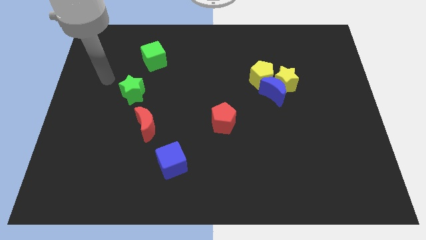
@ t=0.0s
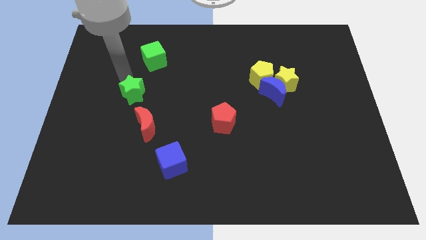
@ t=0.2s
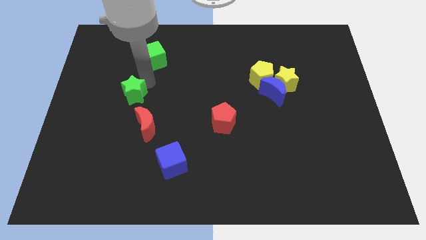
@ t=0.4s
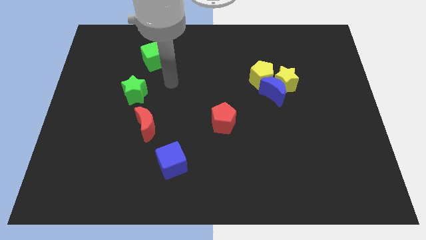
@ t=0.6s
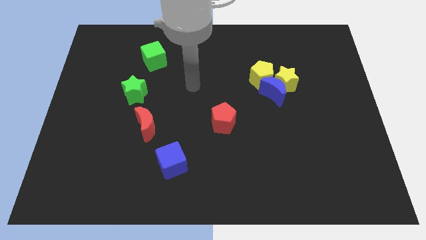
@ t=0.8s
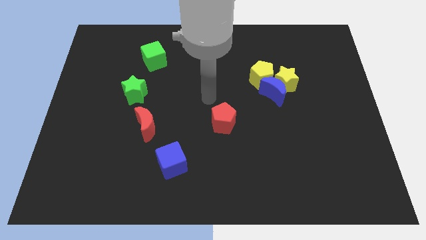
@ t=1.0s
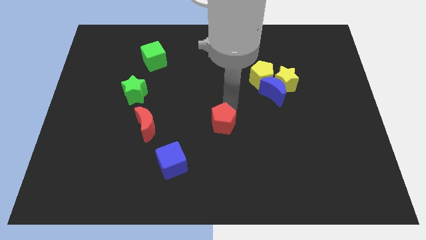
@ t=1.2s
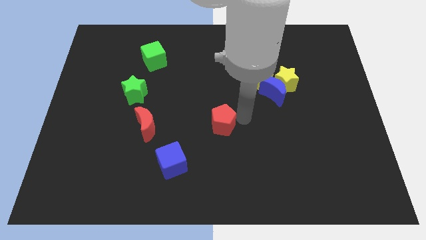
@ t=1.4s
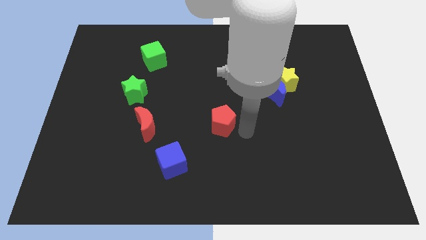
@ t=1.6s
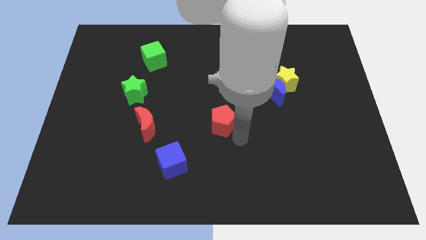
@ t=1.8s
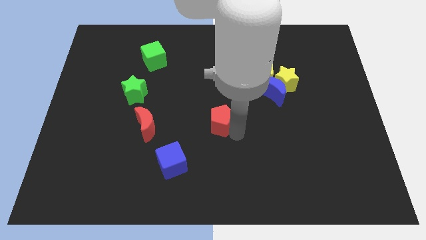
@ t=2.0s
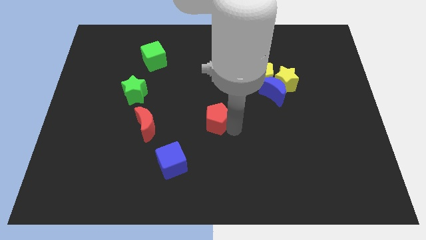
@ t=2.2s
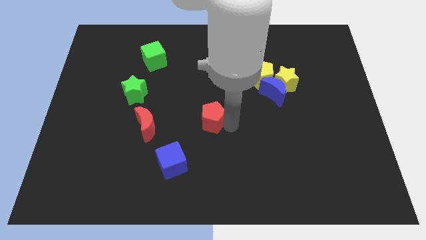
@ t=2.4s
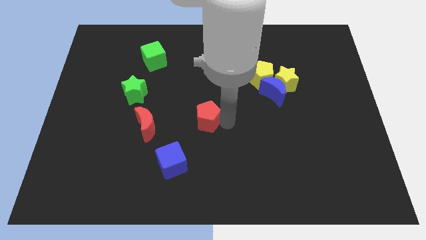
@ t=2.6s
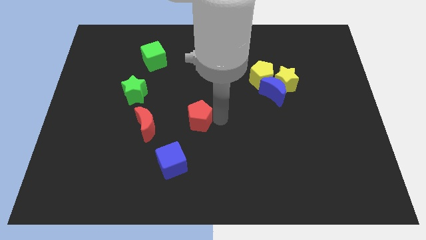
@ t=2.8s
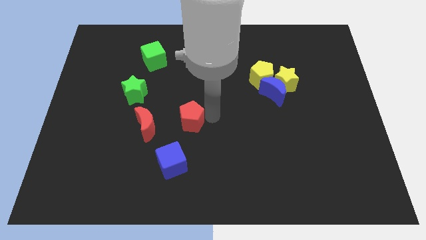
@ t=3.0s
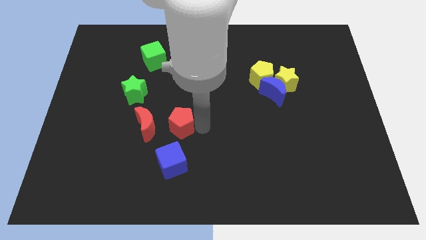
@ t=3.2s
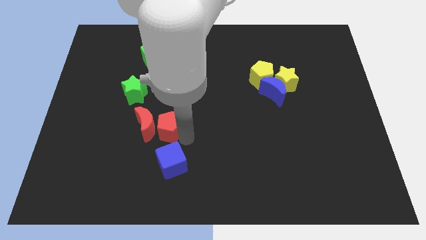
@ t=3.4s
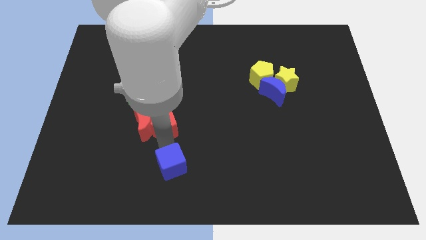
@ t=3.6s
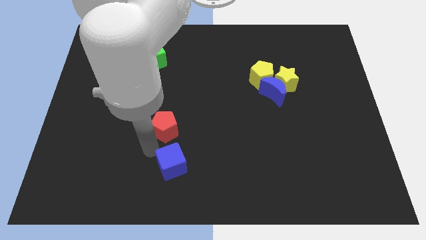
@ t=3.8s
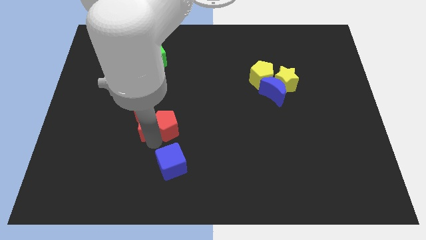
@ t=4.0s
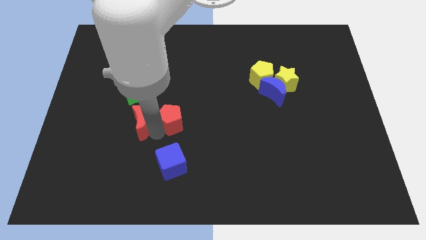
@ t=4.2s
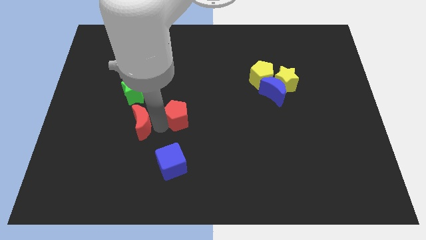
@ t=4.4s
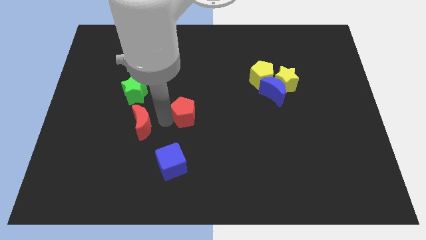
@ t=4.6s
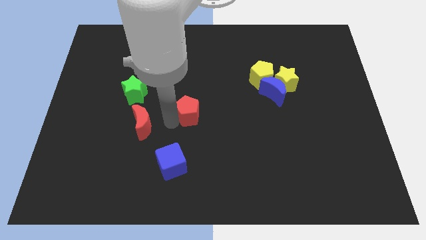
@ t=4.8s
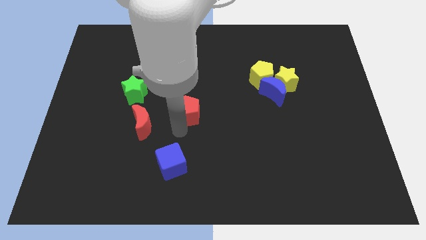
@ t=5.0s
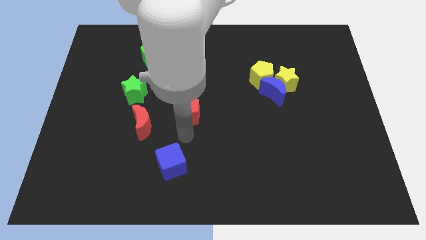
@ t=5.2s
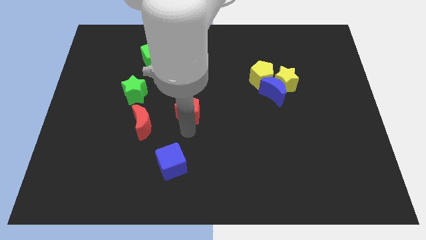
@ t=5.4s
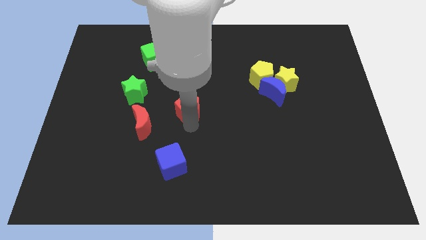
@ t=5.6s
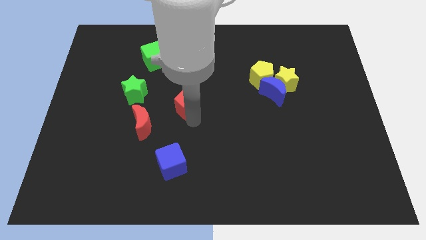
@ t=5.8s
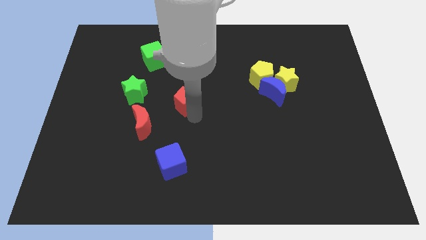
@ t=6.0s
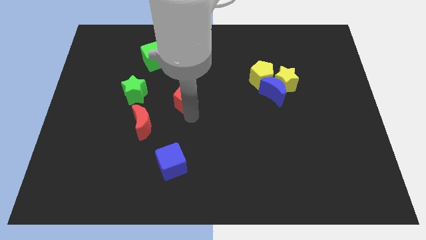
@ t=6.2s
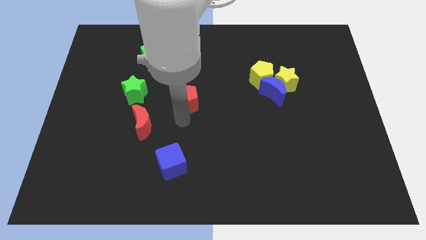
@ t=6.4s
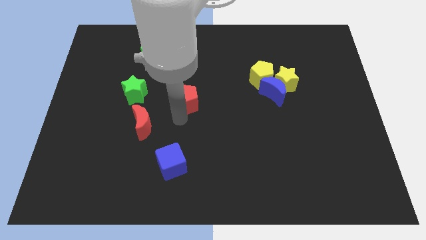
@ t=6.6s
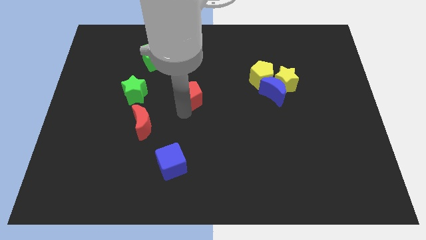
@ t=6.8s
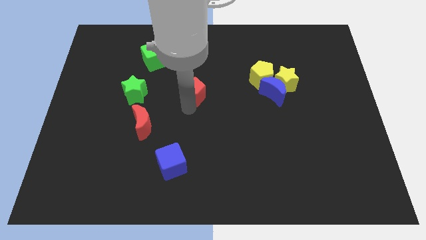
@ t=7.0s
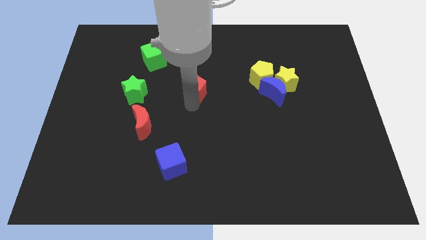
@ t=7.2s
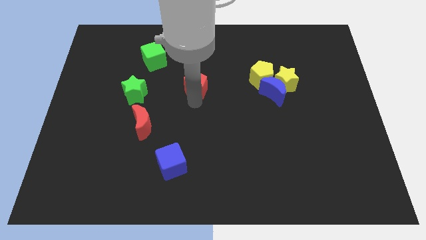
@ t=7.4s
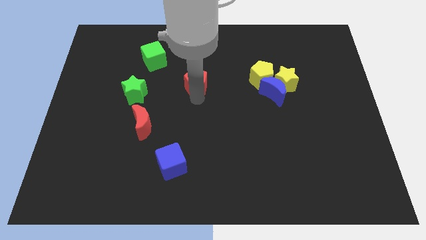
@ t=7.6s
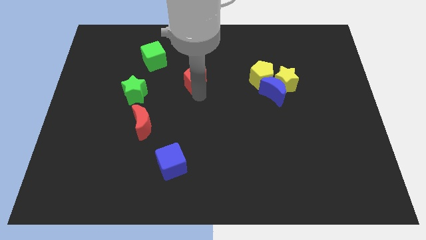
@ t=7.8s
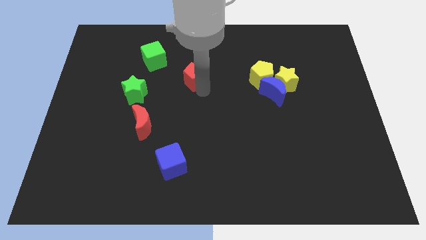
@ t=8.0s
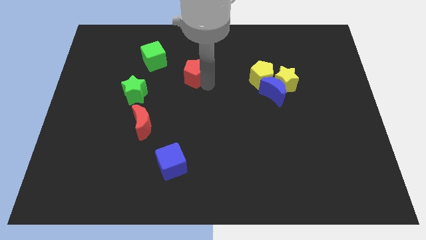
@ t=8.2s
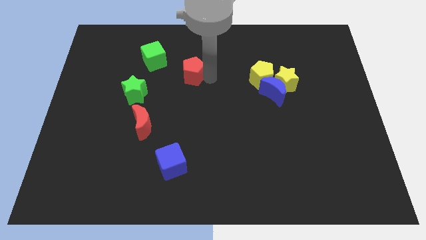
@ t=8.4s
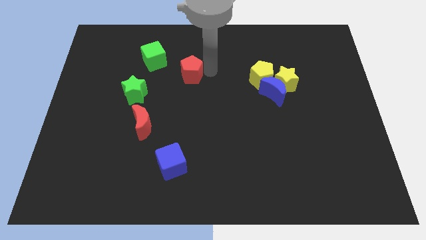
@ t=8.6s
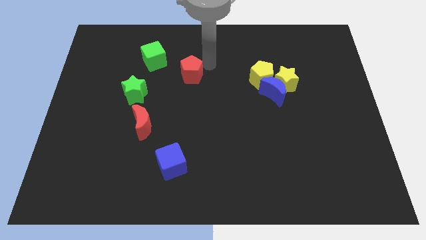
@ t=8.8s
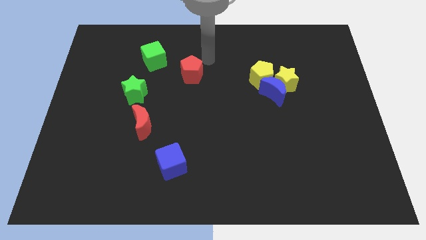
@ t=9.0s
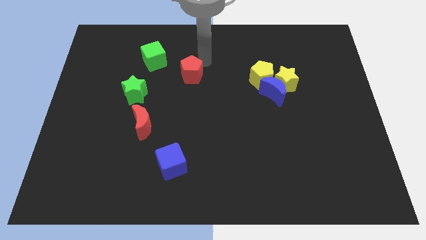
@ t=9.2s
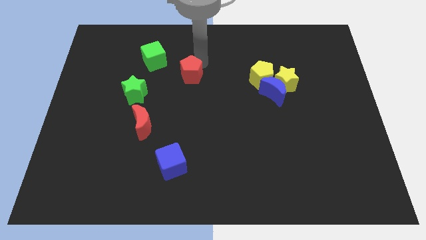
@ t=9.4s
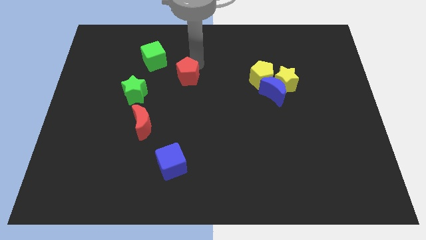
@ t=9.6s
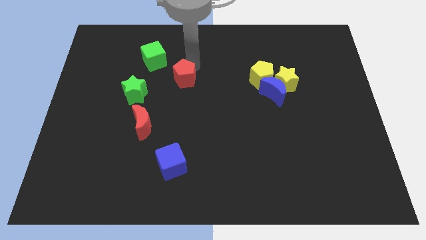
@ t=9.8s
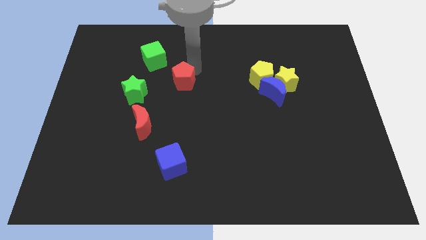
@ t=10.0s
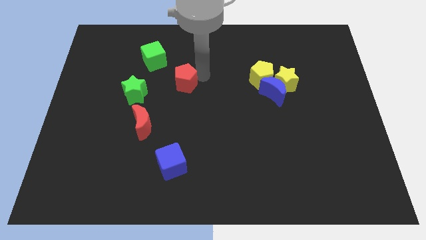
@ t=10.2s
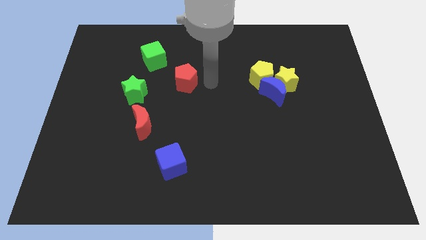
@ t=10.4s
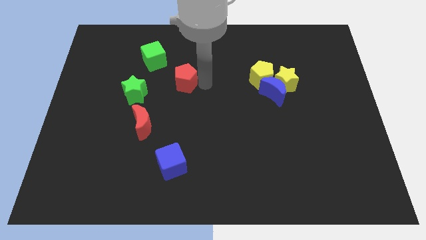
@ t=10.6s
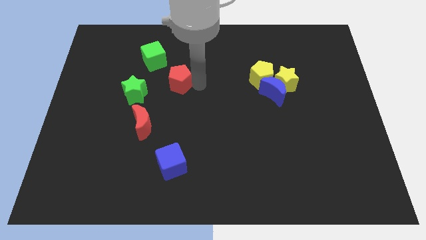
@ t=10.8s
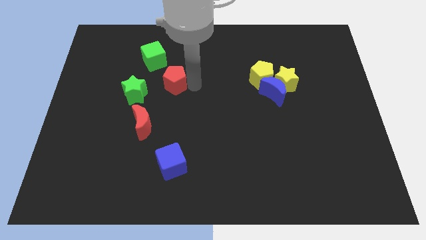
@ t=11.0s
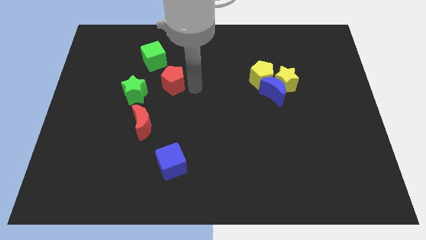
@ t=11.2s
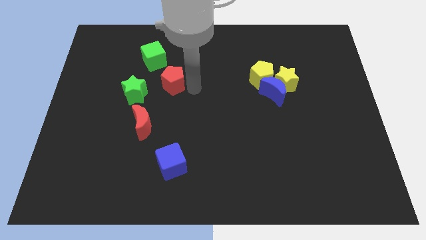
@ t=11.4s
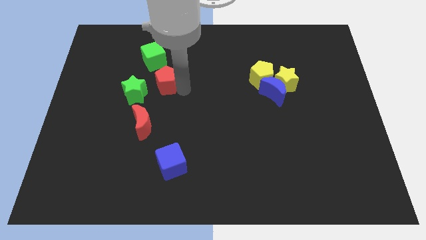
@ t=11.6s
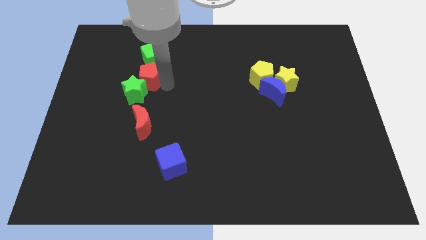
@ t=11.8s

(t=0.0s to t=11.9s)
push the red pentagon to the top side of the green star
